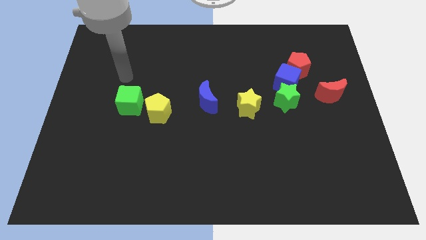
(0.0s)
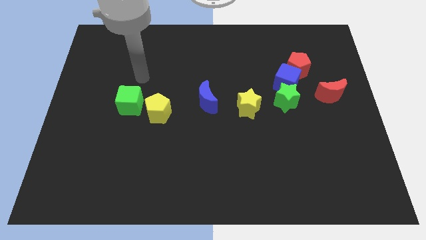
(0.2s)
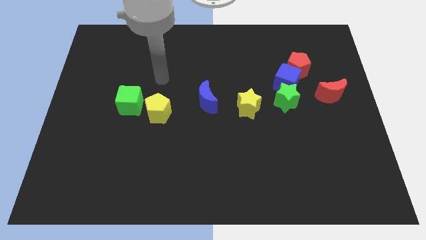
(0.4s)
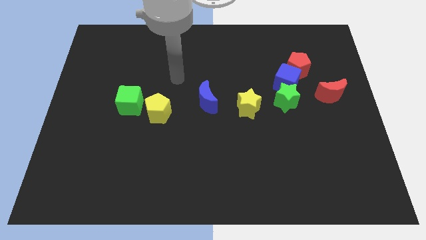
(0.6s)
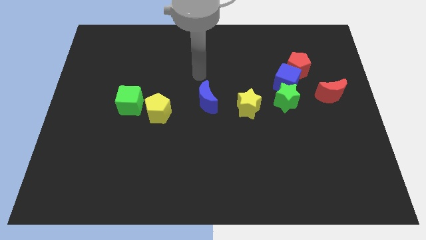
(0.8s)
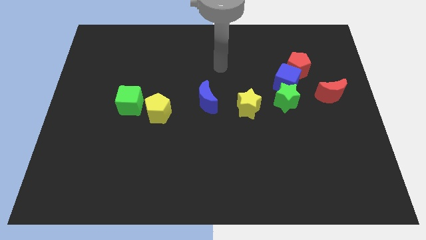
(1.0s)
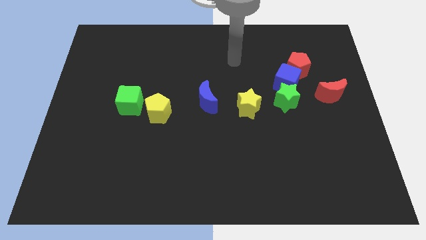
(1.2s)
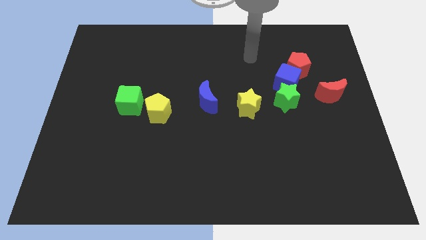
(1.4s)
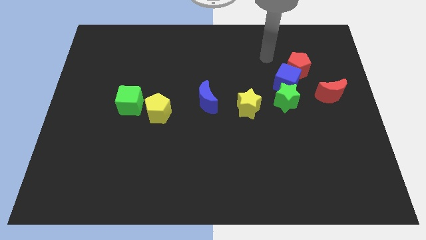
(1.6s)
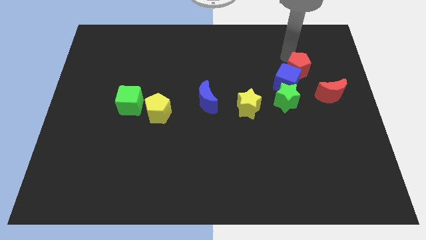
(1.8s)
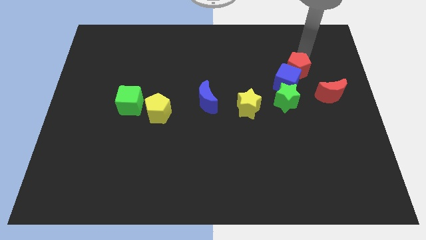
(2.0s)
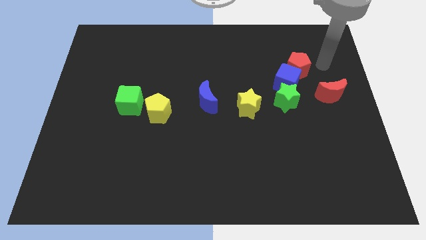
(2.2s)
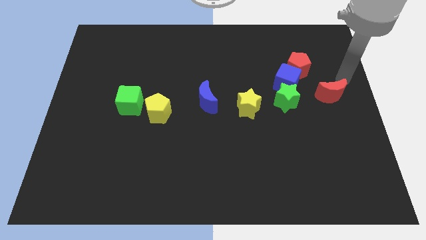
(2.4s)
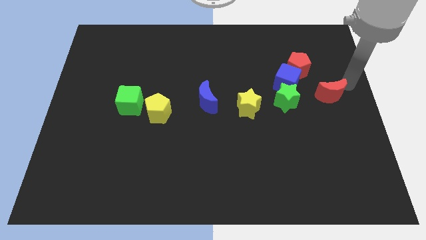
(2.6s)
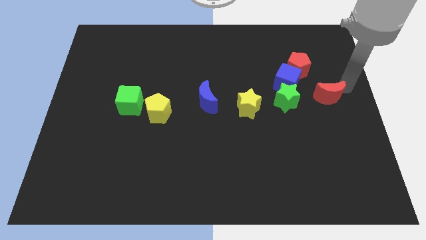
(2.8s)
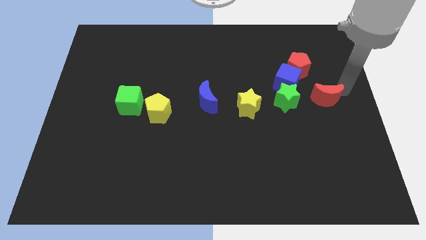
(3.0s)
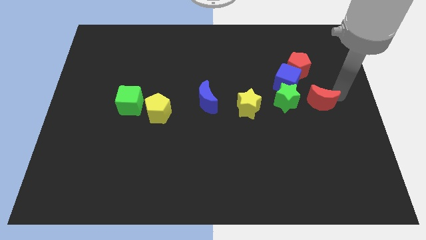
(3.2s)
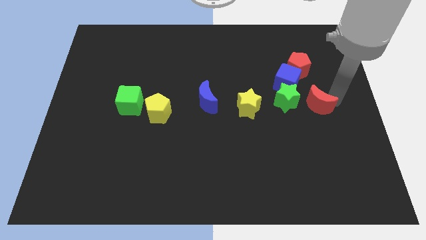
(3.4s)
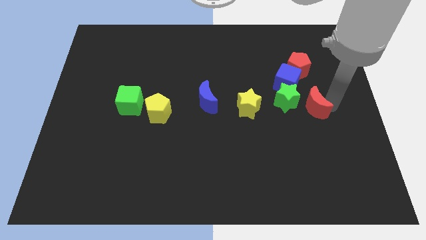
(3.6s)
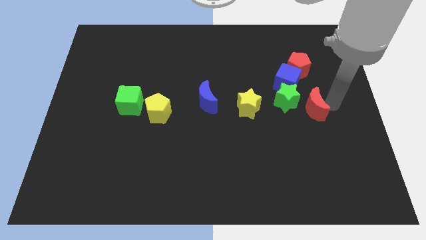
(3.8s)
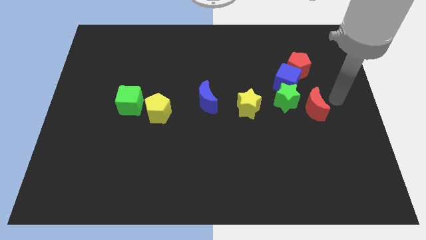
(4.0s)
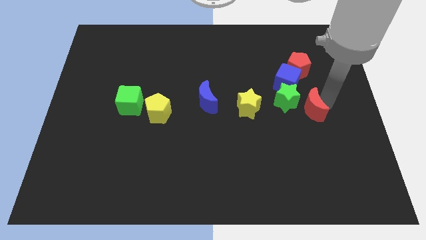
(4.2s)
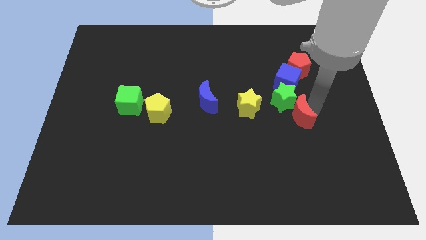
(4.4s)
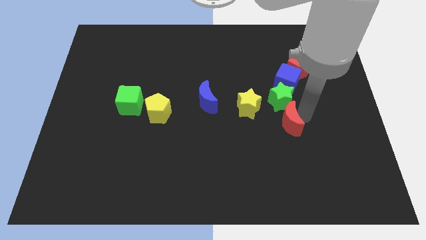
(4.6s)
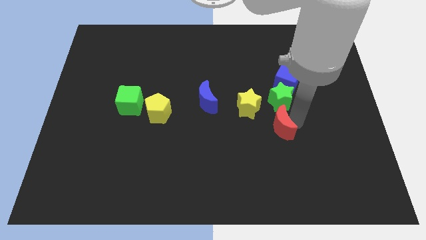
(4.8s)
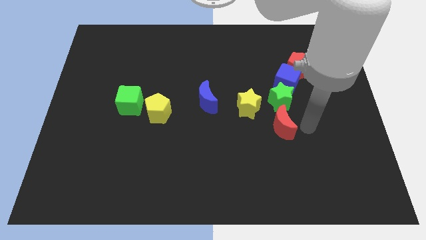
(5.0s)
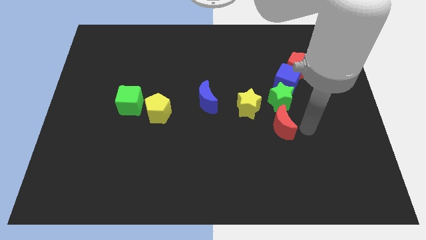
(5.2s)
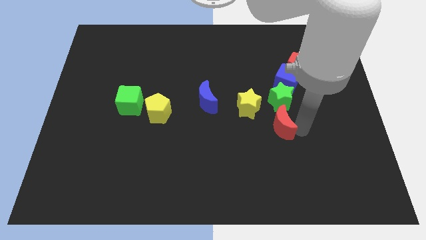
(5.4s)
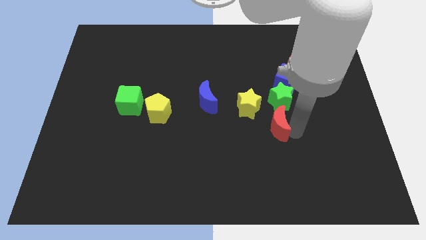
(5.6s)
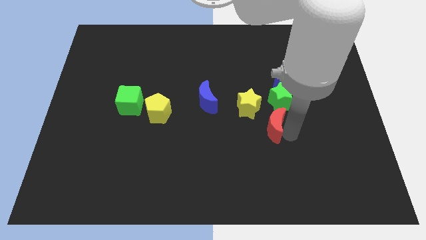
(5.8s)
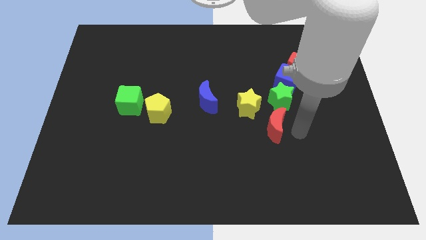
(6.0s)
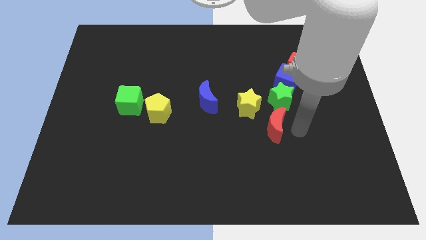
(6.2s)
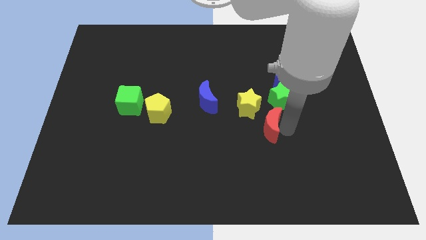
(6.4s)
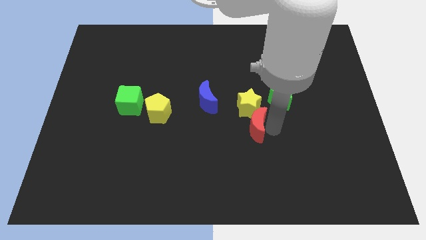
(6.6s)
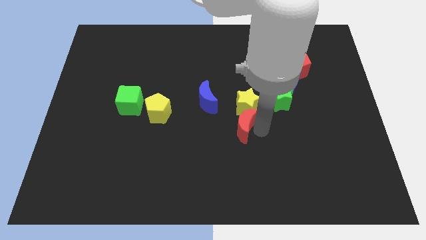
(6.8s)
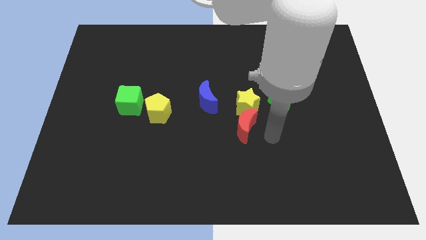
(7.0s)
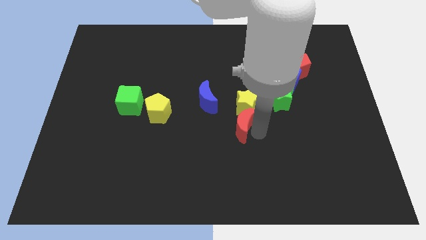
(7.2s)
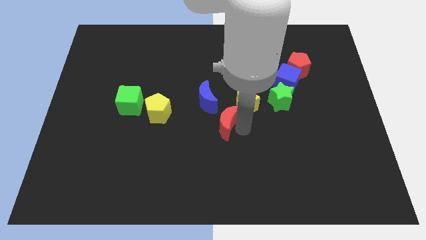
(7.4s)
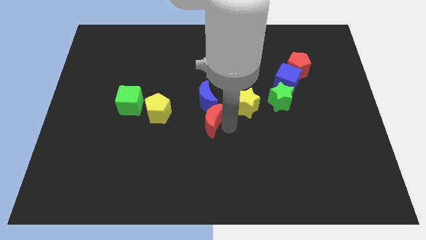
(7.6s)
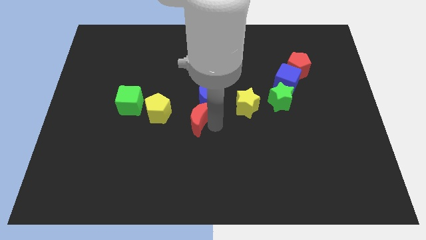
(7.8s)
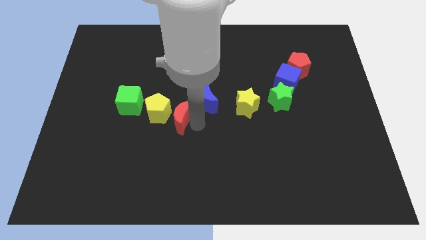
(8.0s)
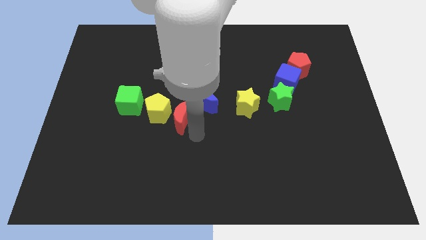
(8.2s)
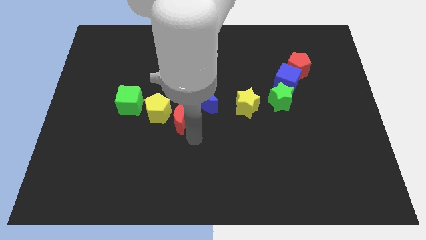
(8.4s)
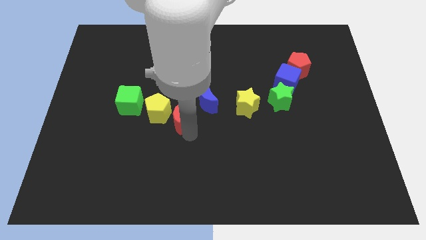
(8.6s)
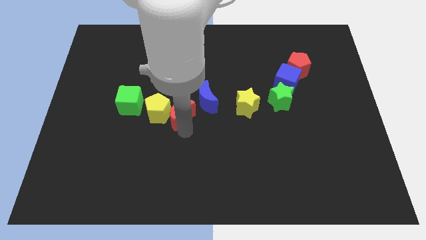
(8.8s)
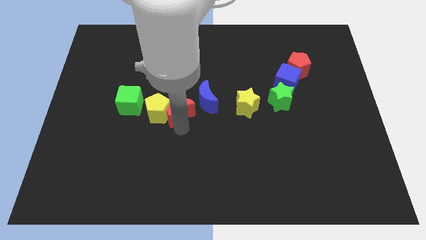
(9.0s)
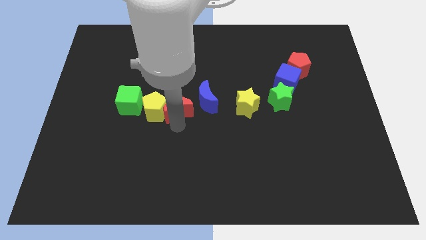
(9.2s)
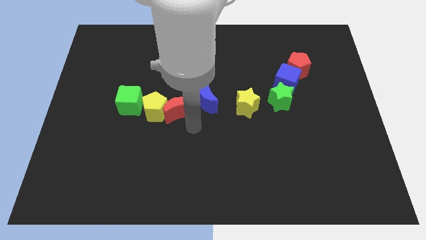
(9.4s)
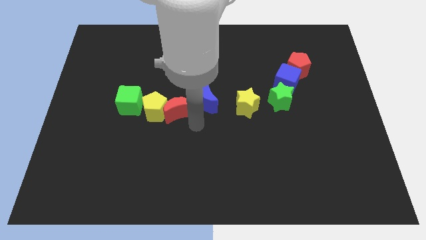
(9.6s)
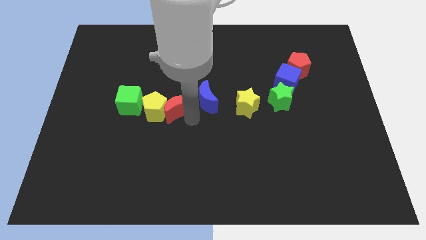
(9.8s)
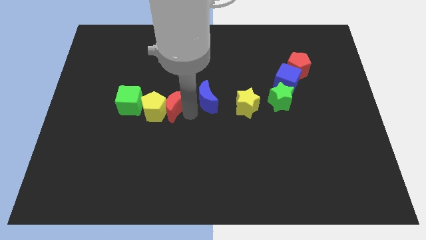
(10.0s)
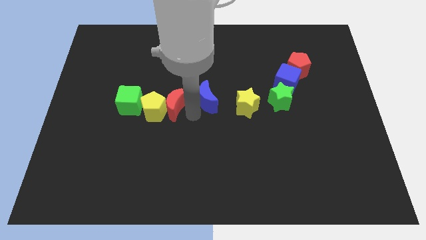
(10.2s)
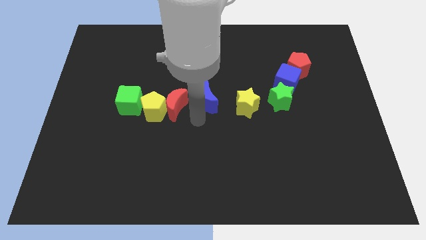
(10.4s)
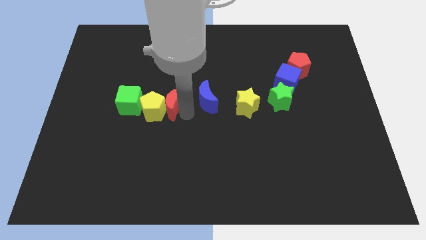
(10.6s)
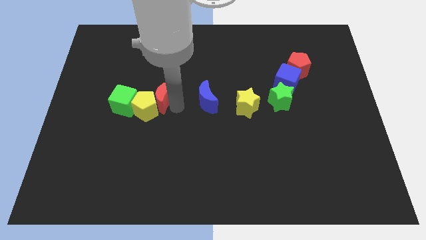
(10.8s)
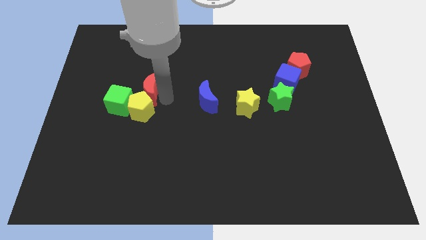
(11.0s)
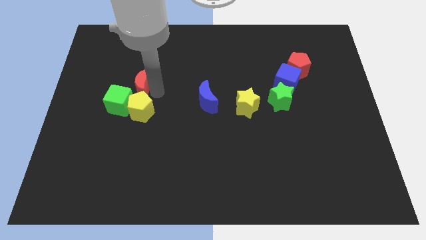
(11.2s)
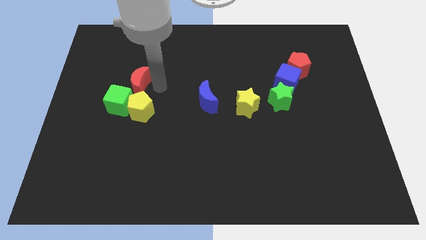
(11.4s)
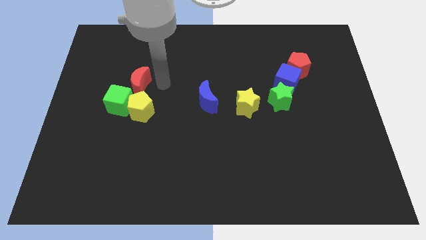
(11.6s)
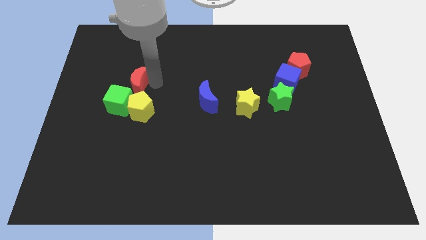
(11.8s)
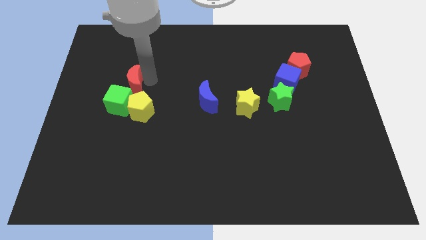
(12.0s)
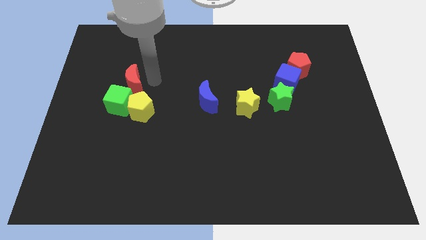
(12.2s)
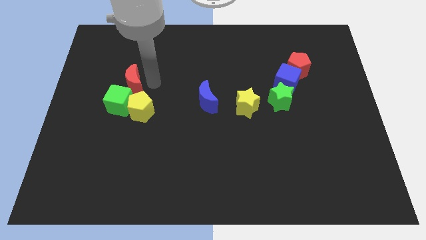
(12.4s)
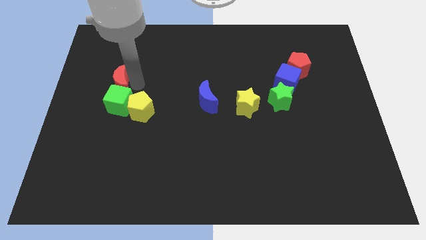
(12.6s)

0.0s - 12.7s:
move the red moon to the top left side of the green cube
